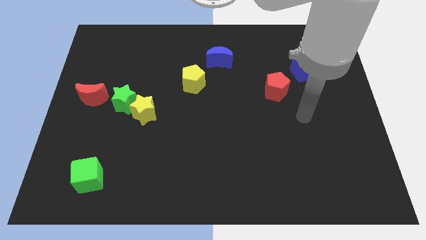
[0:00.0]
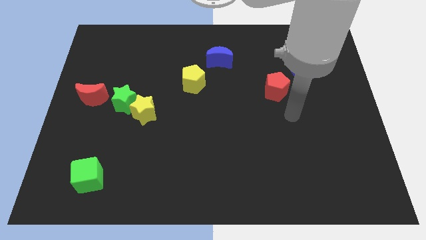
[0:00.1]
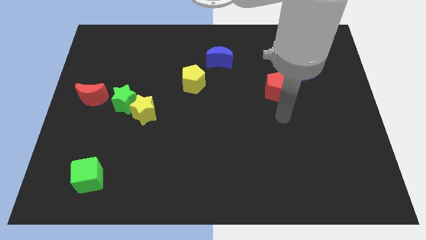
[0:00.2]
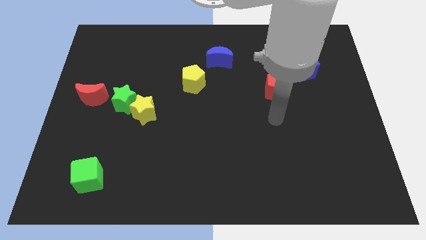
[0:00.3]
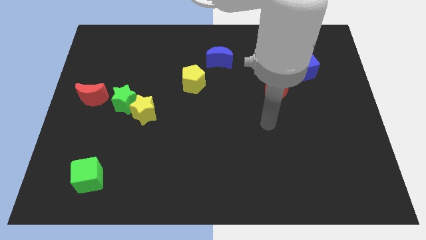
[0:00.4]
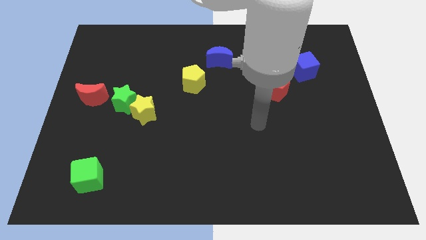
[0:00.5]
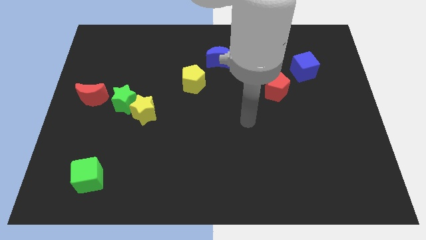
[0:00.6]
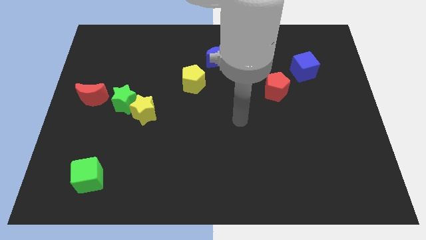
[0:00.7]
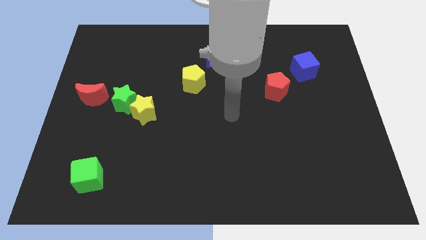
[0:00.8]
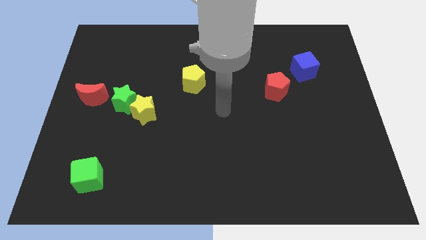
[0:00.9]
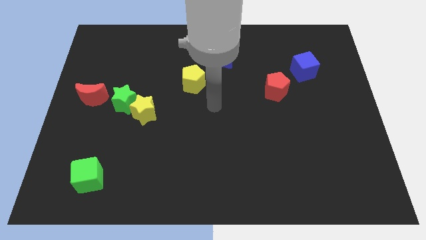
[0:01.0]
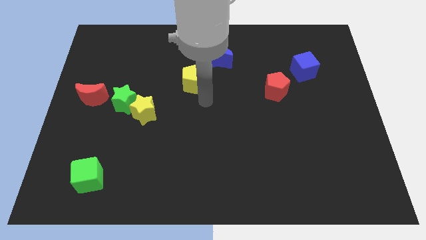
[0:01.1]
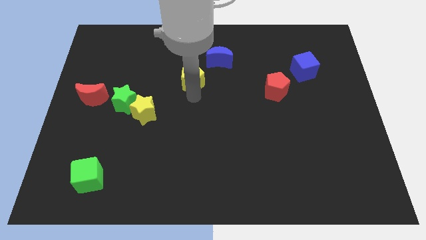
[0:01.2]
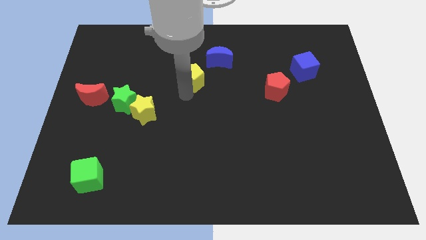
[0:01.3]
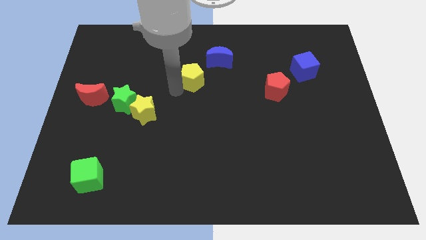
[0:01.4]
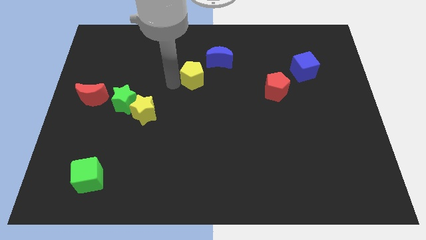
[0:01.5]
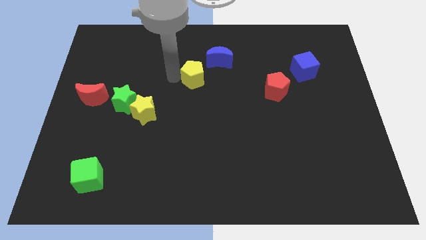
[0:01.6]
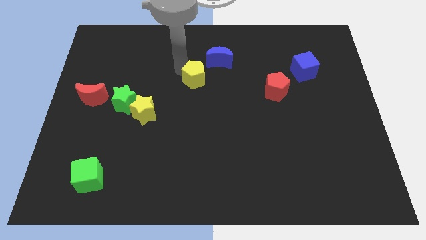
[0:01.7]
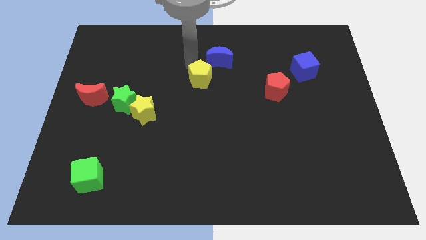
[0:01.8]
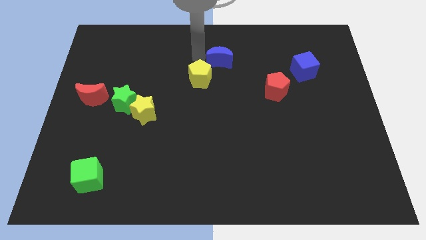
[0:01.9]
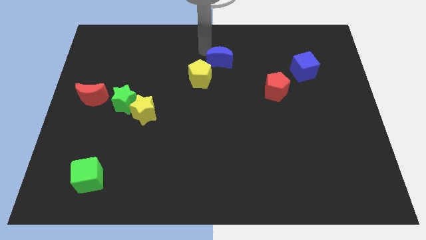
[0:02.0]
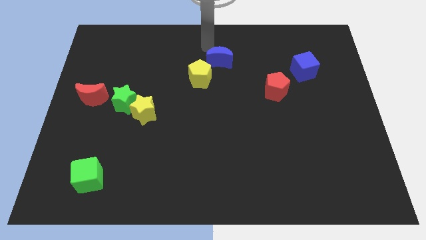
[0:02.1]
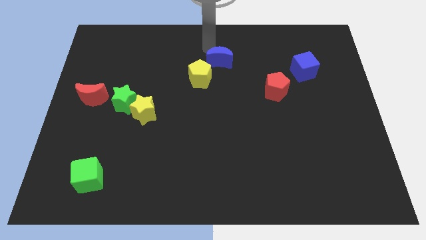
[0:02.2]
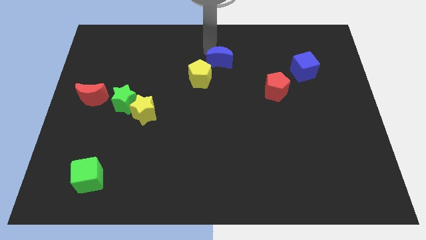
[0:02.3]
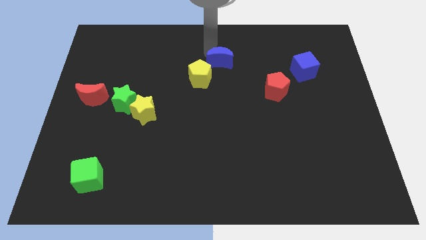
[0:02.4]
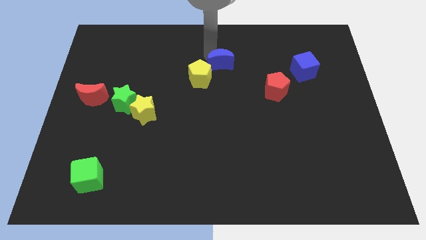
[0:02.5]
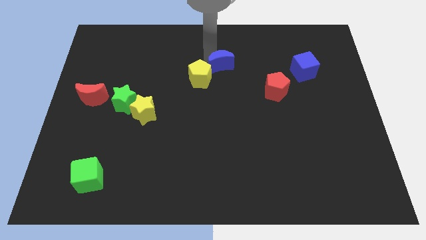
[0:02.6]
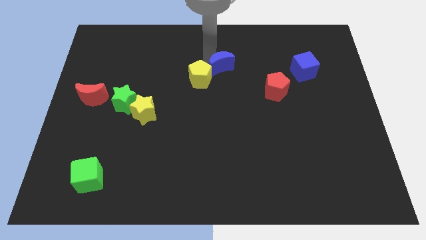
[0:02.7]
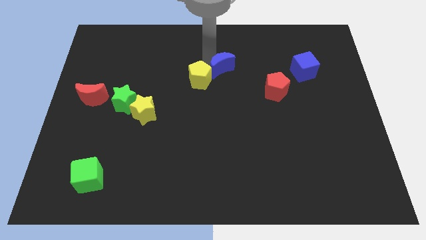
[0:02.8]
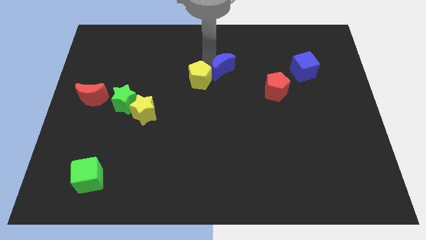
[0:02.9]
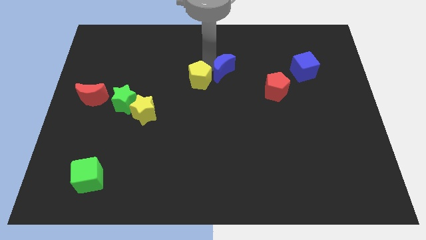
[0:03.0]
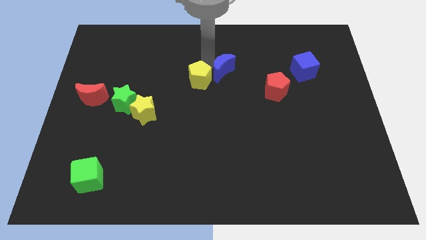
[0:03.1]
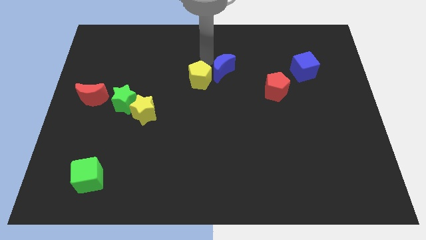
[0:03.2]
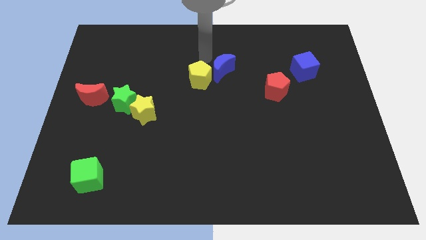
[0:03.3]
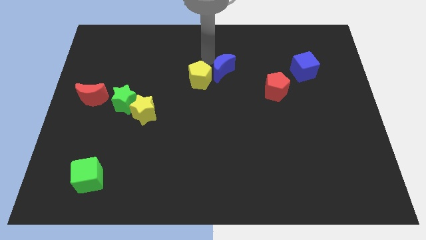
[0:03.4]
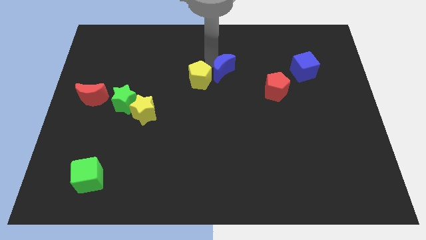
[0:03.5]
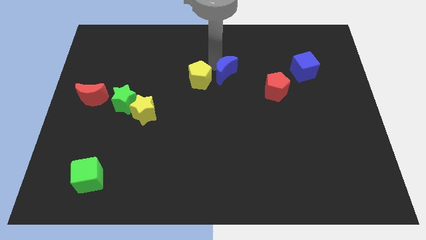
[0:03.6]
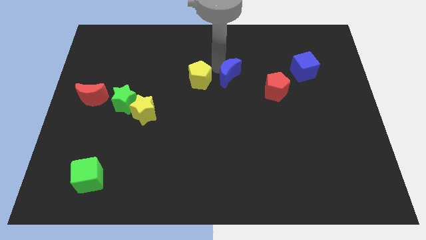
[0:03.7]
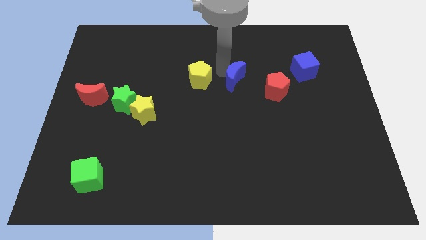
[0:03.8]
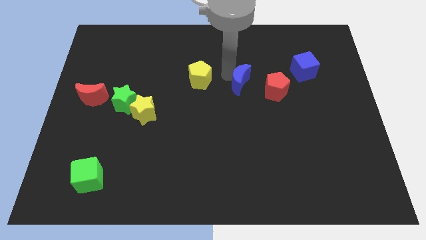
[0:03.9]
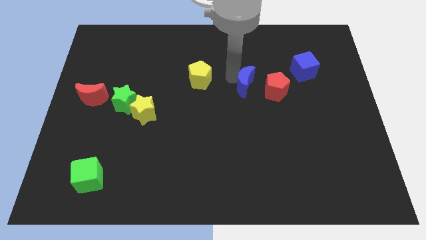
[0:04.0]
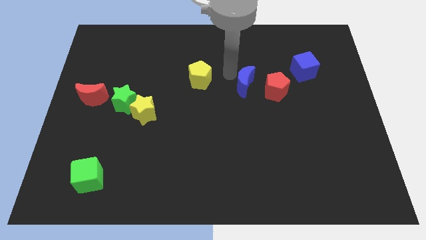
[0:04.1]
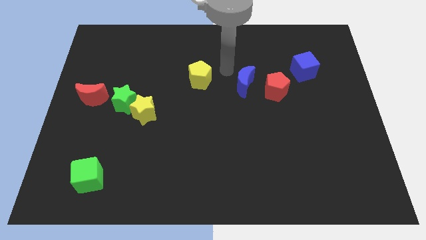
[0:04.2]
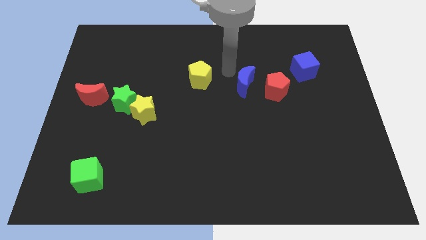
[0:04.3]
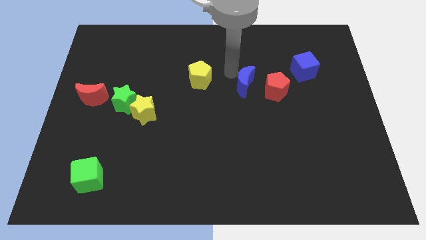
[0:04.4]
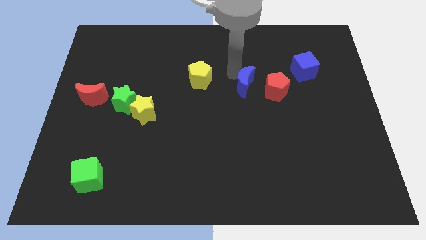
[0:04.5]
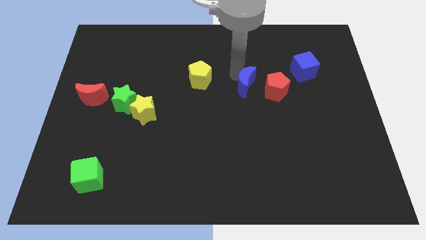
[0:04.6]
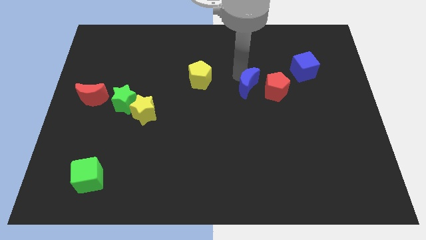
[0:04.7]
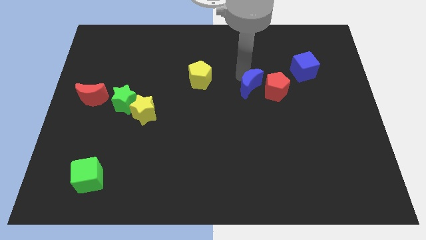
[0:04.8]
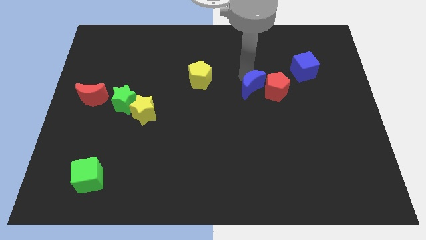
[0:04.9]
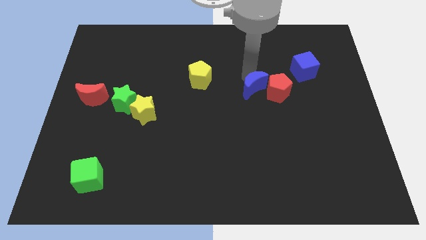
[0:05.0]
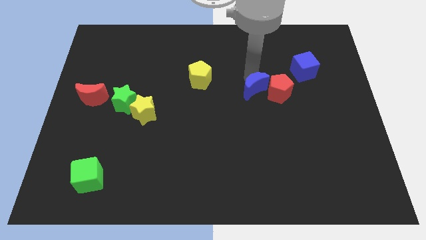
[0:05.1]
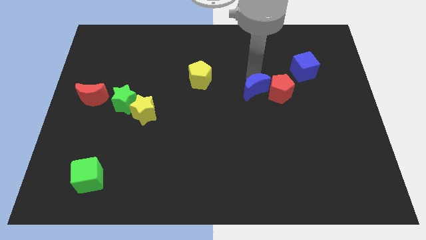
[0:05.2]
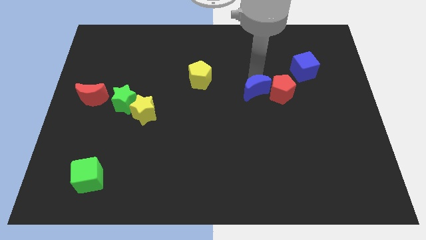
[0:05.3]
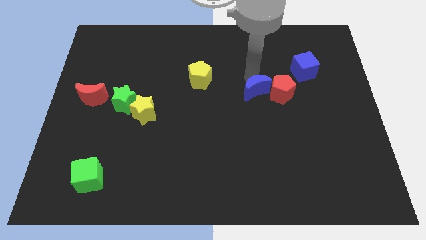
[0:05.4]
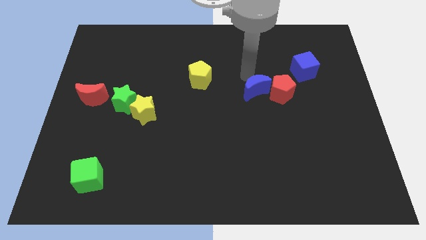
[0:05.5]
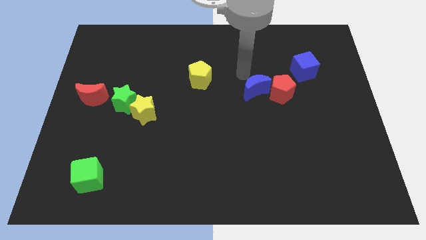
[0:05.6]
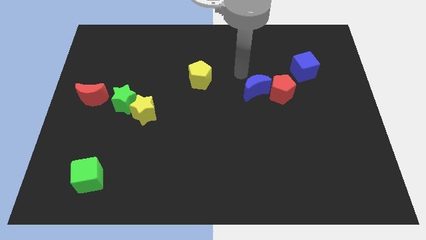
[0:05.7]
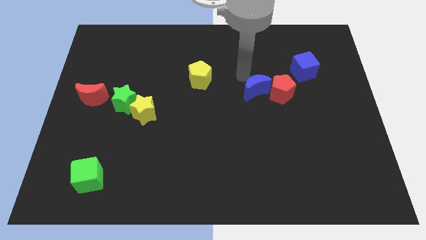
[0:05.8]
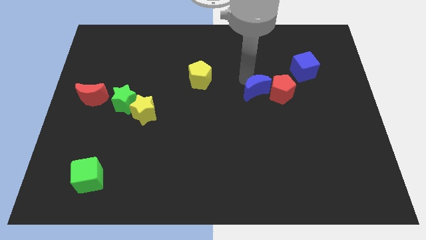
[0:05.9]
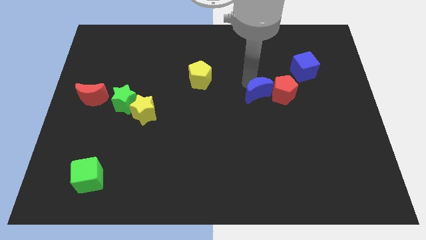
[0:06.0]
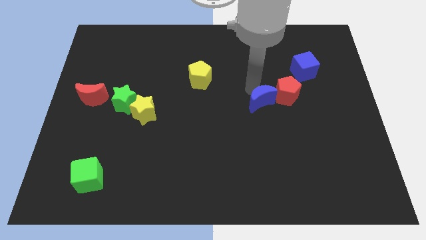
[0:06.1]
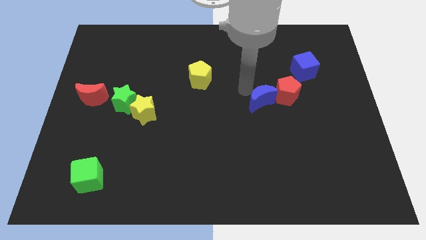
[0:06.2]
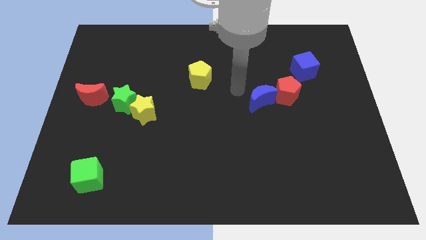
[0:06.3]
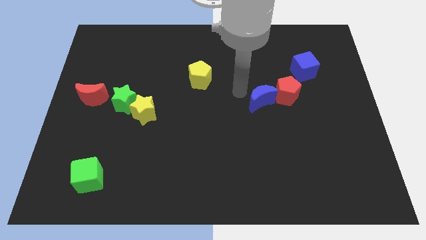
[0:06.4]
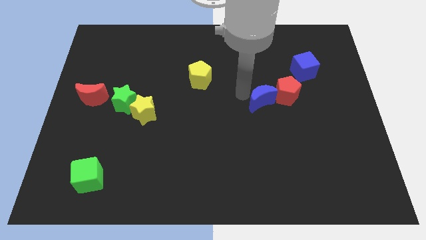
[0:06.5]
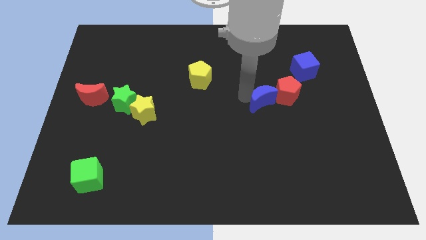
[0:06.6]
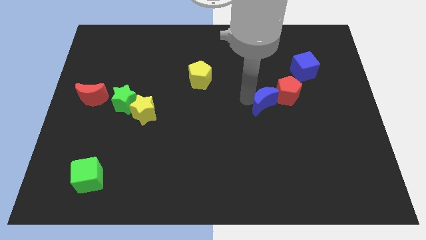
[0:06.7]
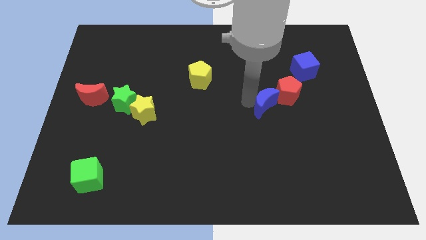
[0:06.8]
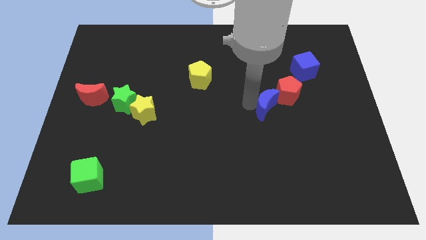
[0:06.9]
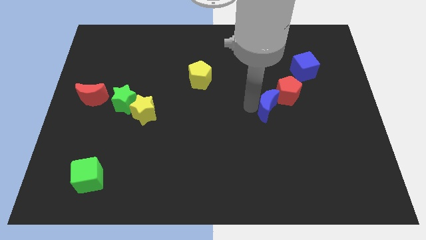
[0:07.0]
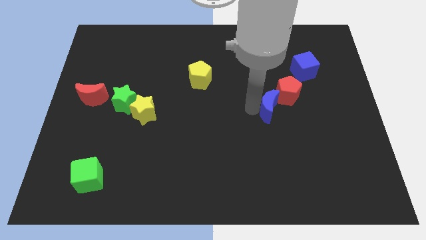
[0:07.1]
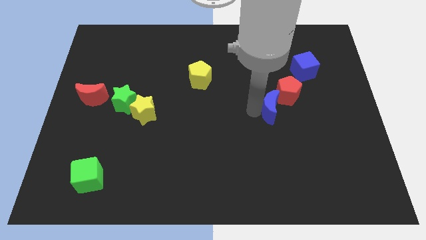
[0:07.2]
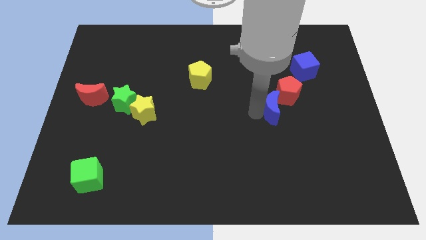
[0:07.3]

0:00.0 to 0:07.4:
move the blue moon down and right diagonally

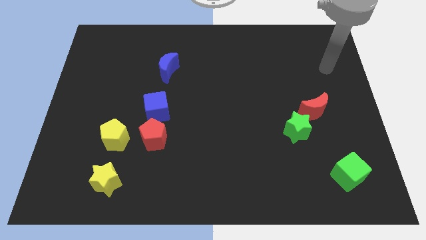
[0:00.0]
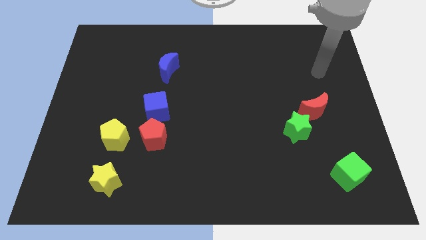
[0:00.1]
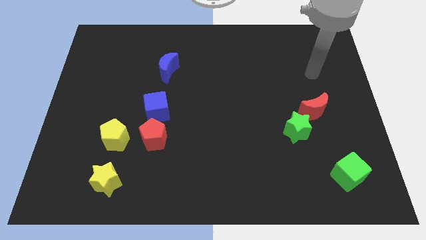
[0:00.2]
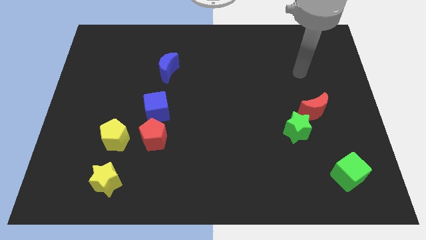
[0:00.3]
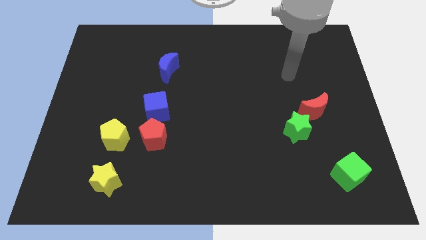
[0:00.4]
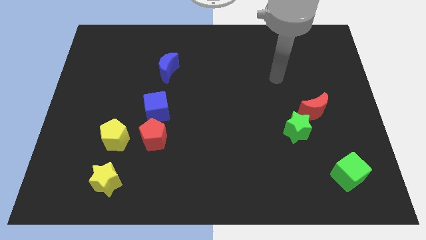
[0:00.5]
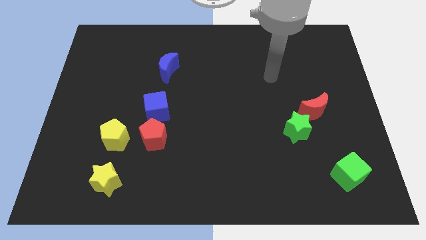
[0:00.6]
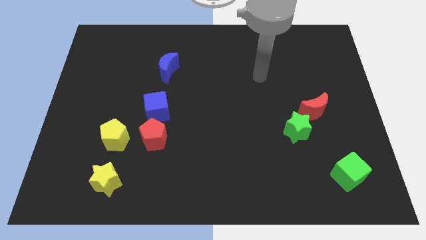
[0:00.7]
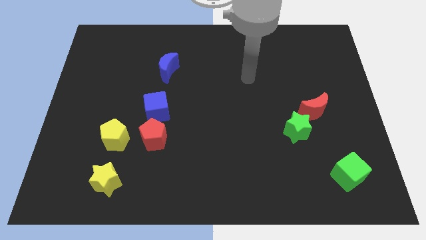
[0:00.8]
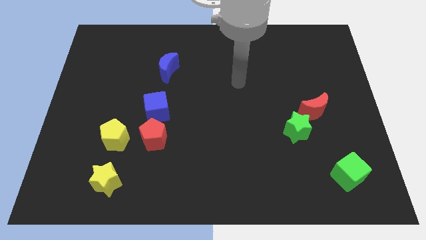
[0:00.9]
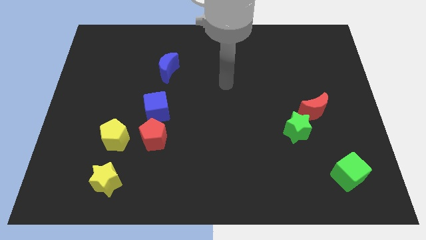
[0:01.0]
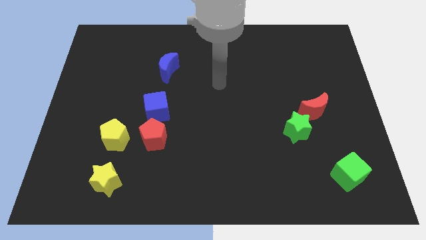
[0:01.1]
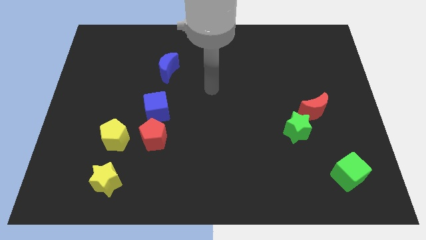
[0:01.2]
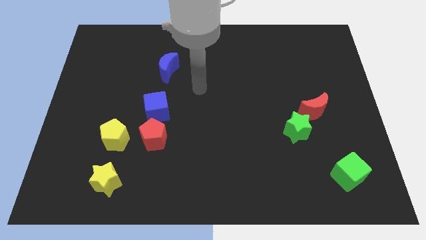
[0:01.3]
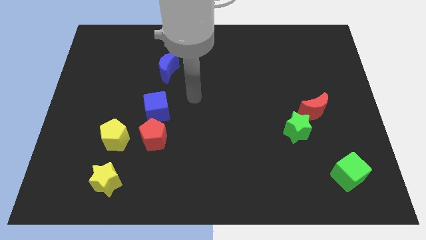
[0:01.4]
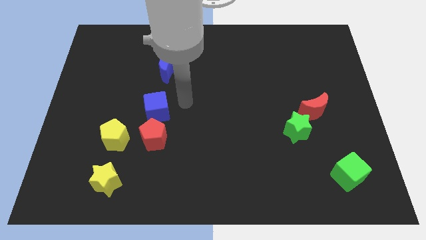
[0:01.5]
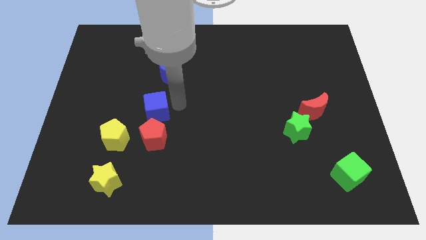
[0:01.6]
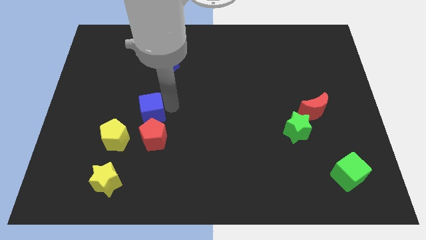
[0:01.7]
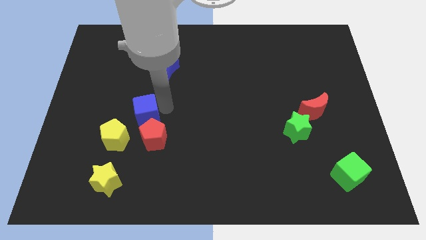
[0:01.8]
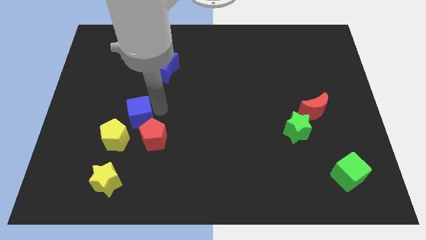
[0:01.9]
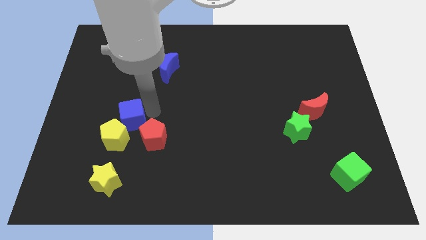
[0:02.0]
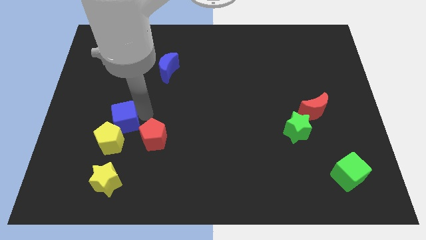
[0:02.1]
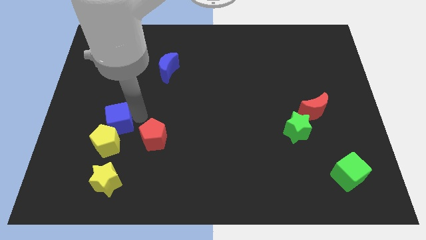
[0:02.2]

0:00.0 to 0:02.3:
slightly move the blue cube downwards and then left
